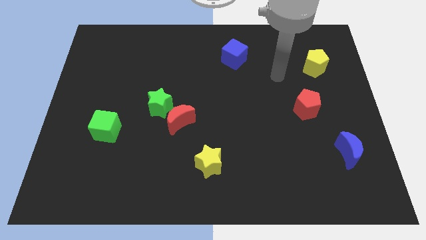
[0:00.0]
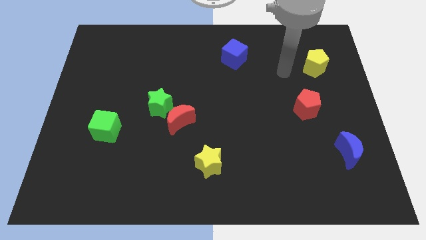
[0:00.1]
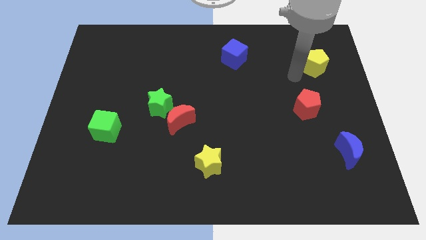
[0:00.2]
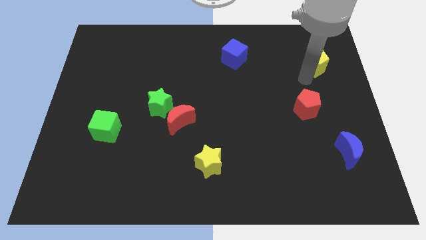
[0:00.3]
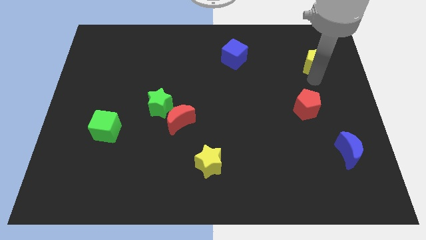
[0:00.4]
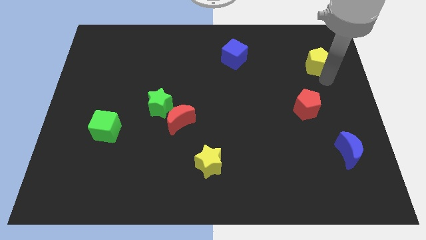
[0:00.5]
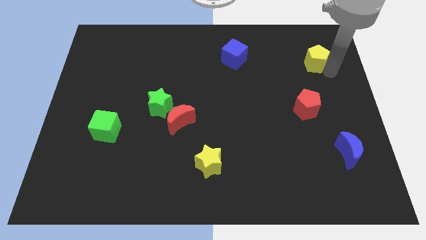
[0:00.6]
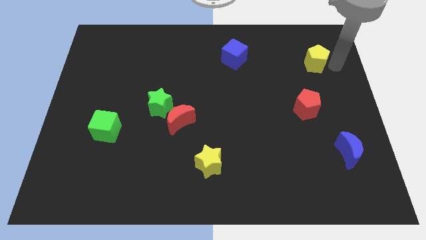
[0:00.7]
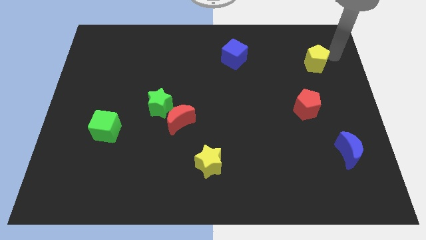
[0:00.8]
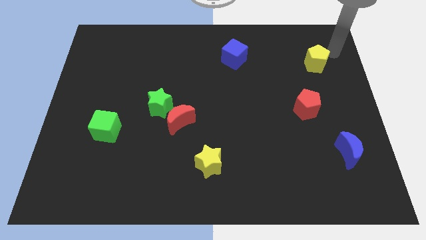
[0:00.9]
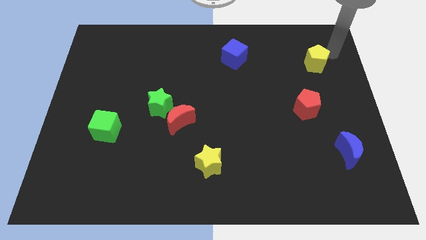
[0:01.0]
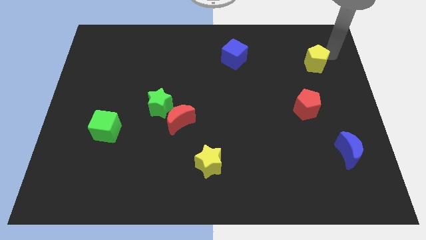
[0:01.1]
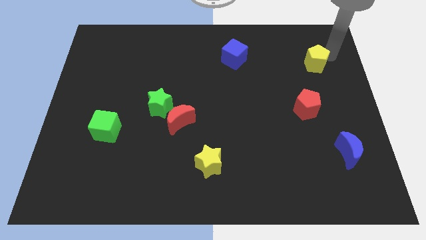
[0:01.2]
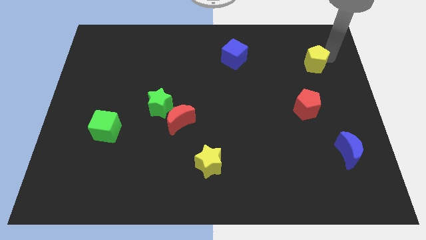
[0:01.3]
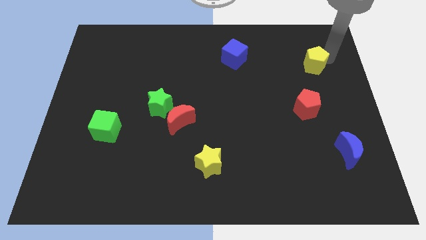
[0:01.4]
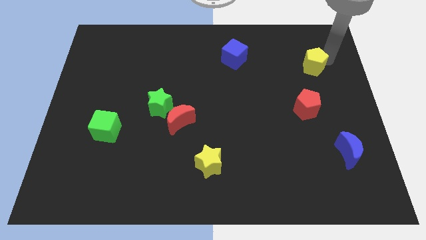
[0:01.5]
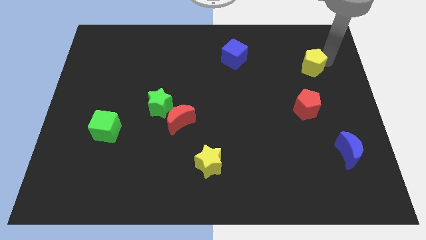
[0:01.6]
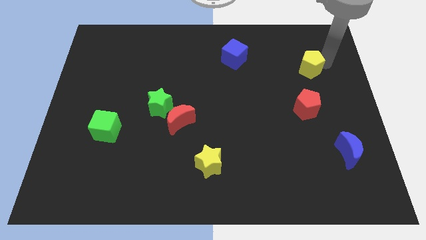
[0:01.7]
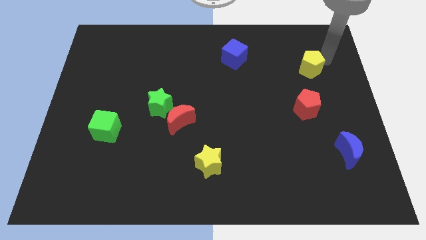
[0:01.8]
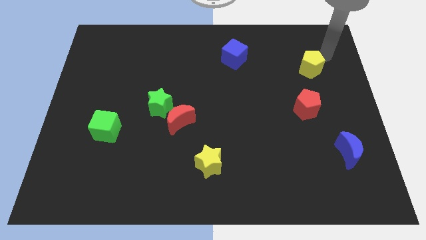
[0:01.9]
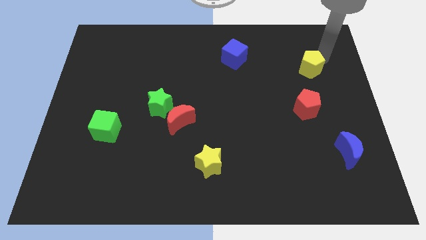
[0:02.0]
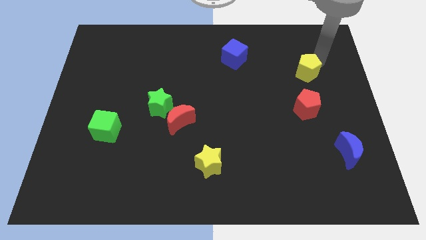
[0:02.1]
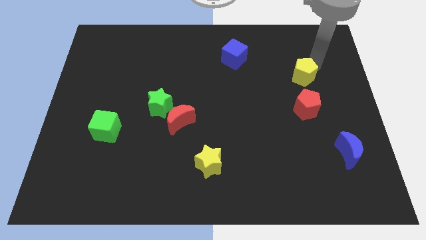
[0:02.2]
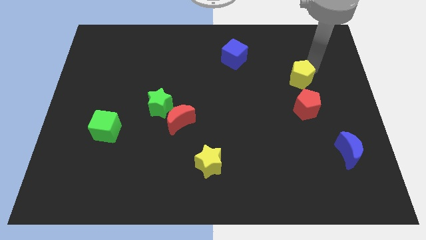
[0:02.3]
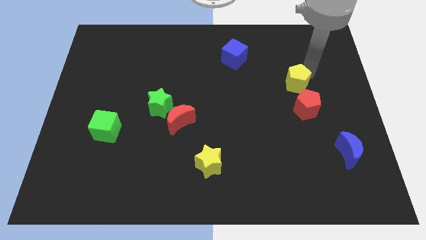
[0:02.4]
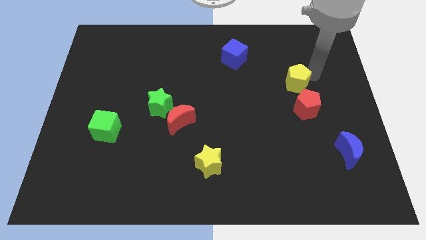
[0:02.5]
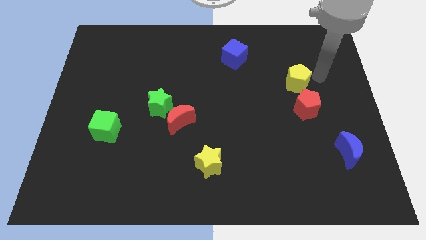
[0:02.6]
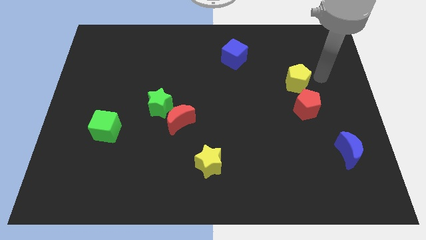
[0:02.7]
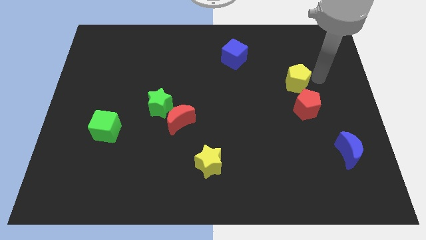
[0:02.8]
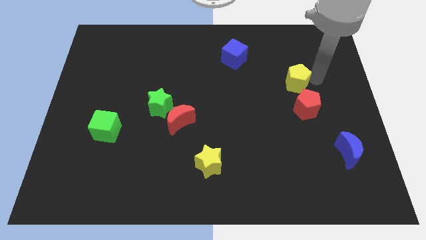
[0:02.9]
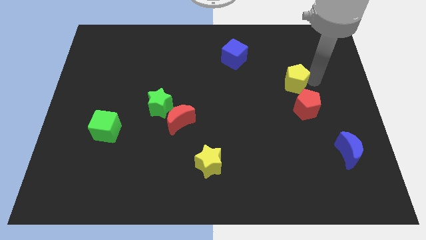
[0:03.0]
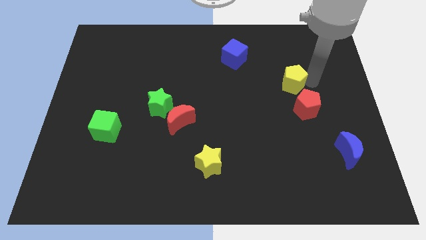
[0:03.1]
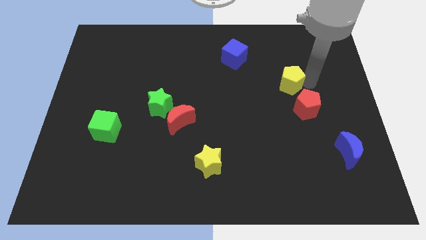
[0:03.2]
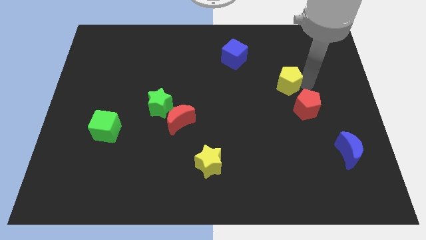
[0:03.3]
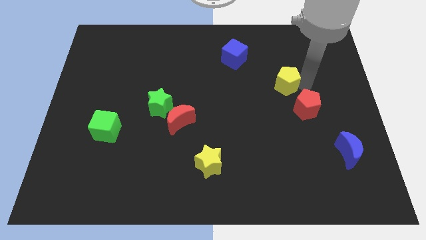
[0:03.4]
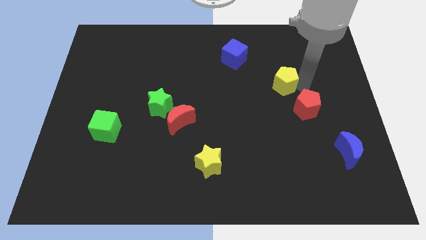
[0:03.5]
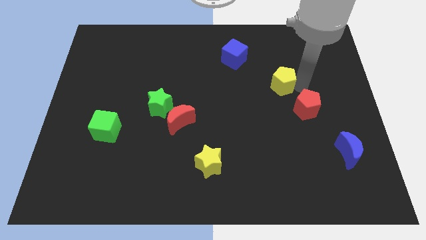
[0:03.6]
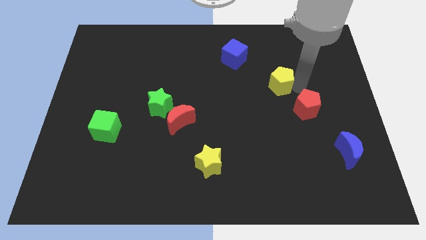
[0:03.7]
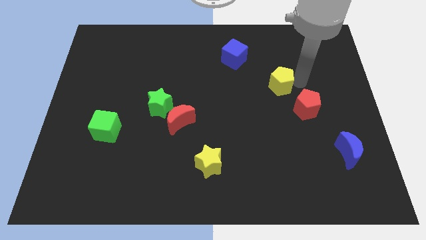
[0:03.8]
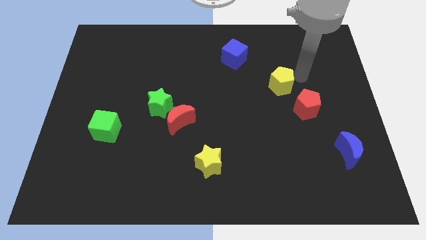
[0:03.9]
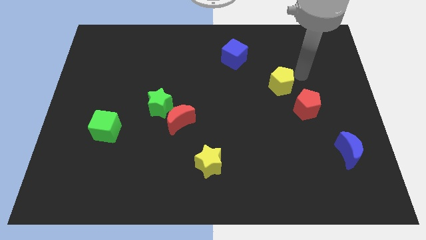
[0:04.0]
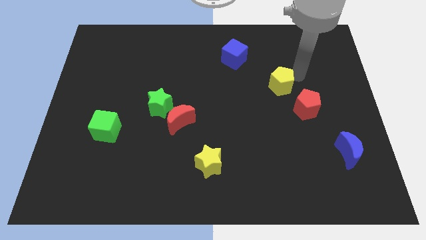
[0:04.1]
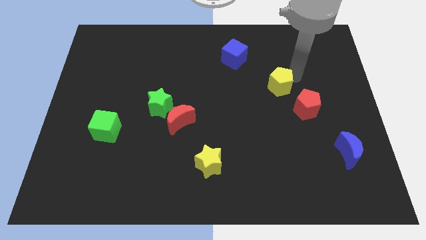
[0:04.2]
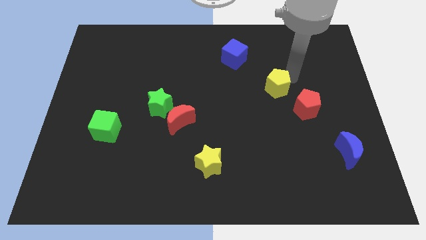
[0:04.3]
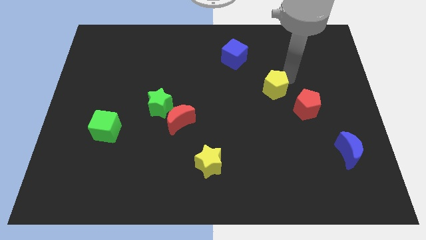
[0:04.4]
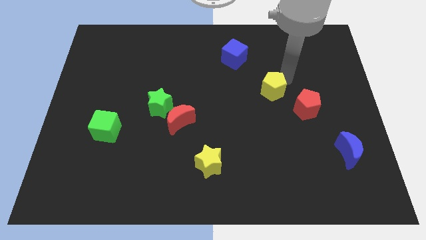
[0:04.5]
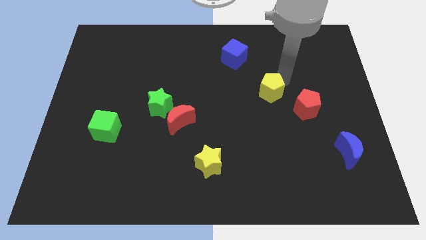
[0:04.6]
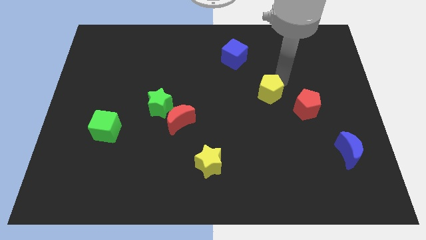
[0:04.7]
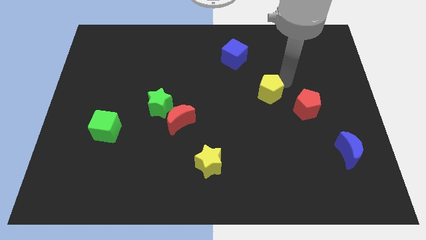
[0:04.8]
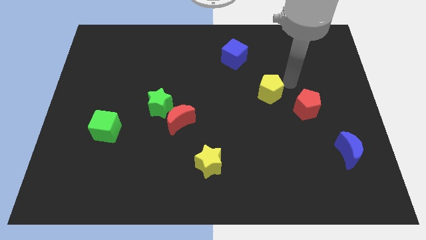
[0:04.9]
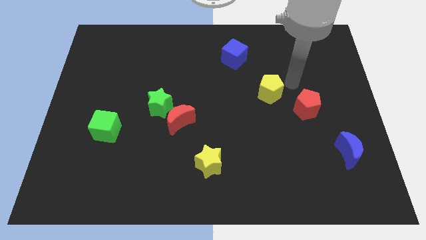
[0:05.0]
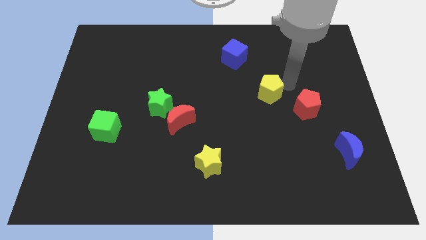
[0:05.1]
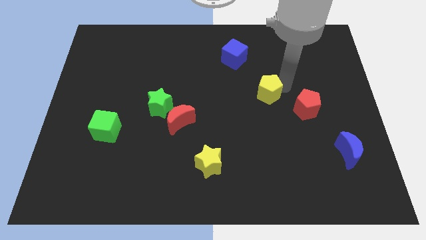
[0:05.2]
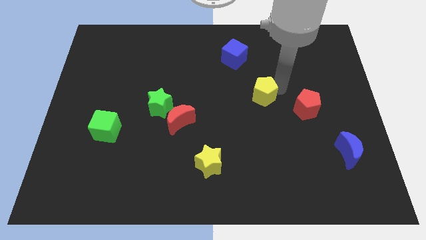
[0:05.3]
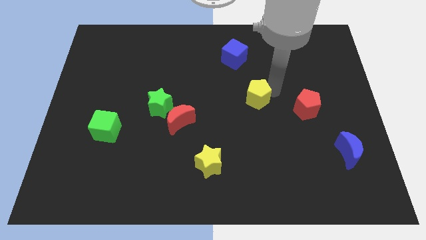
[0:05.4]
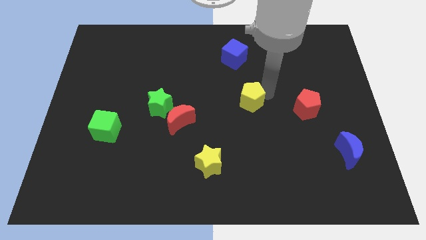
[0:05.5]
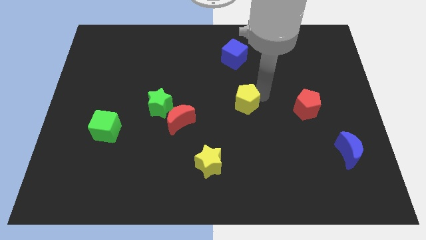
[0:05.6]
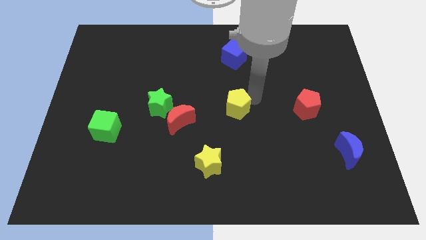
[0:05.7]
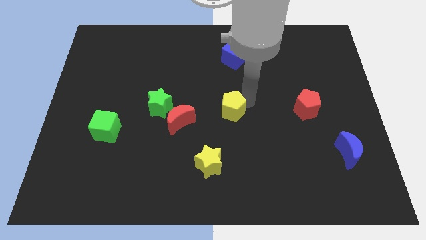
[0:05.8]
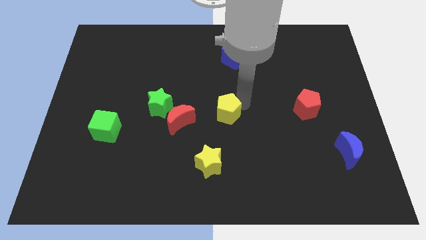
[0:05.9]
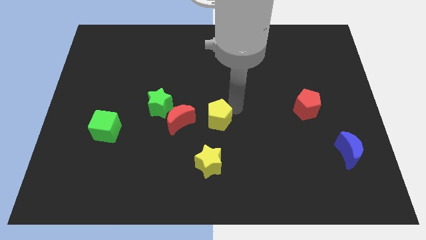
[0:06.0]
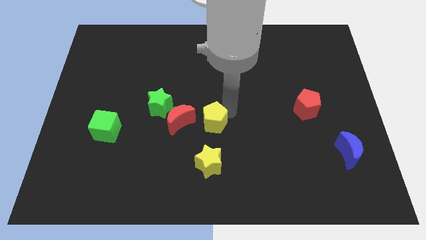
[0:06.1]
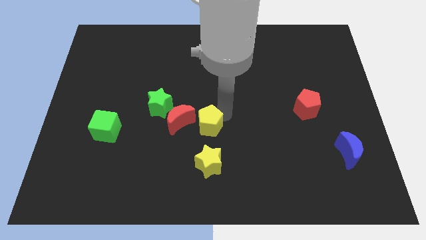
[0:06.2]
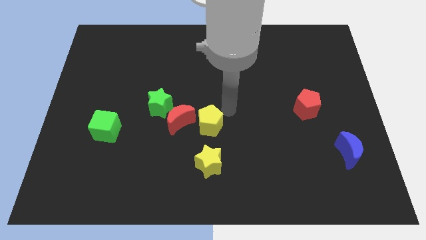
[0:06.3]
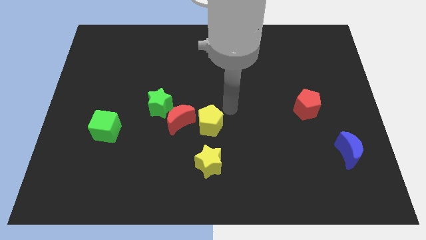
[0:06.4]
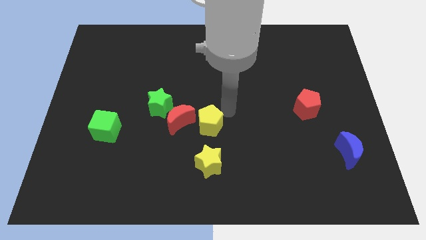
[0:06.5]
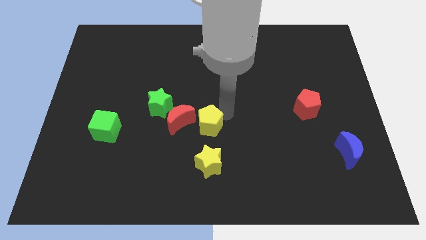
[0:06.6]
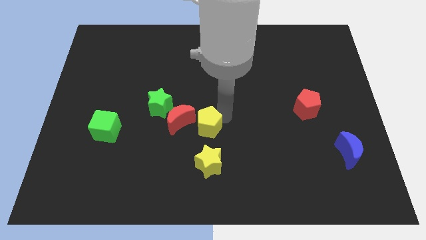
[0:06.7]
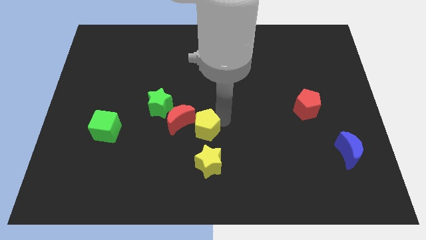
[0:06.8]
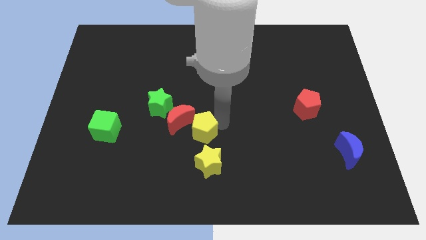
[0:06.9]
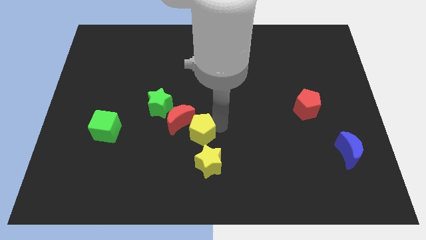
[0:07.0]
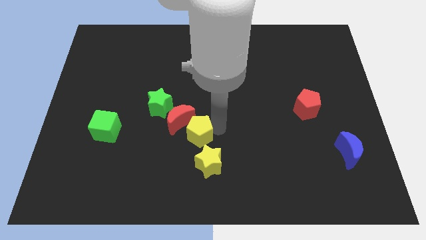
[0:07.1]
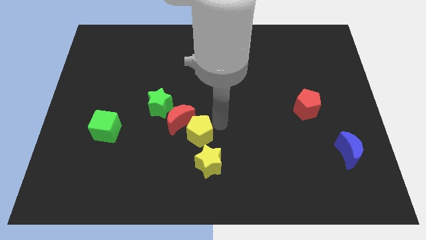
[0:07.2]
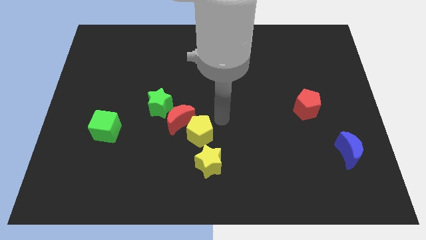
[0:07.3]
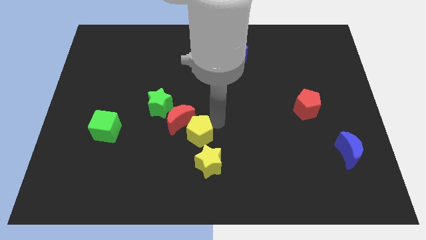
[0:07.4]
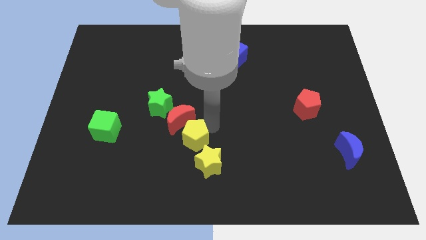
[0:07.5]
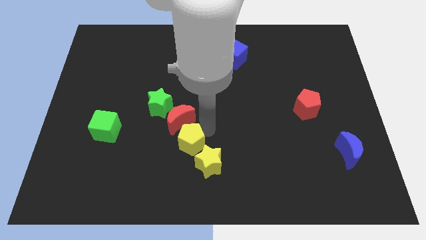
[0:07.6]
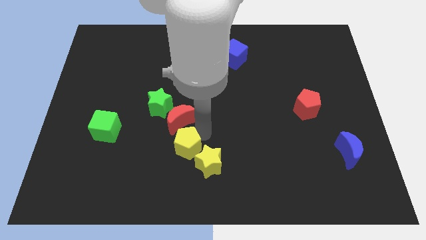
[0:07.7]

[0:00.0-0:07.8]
slide the yellow pentagon to the left side of the yellow star

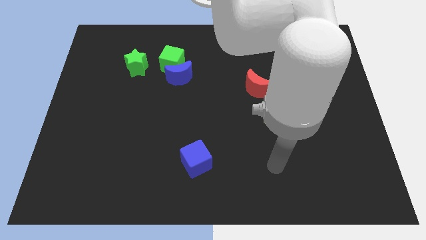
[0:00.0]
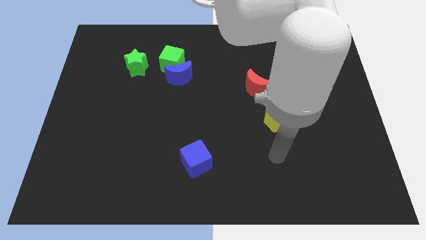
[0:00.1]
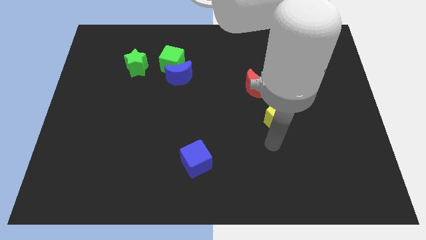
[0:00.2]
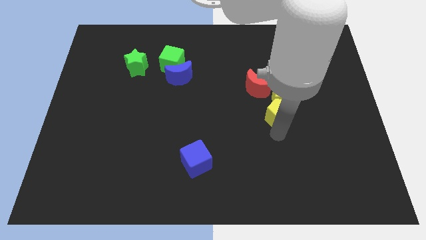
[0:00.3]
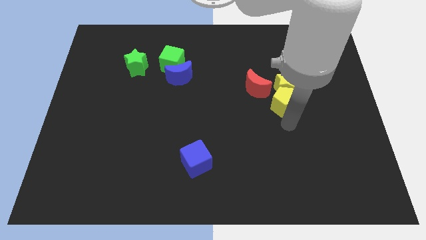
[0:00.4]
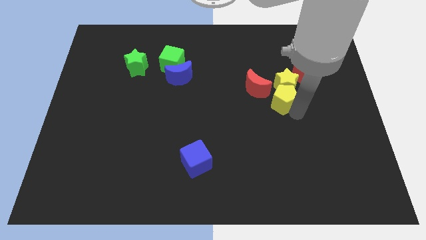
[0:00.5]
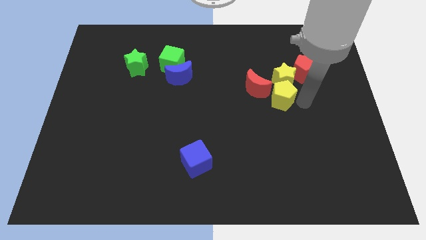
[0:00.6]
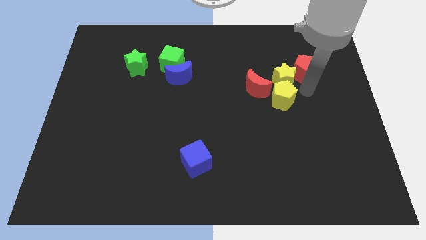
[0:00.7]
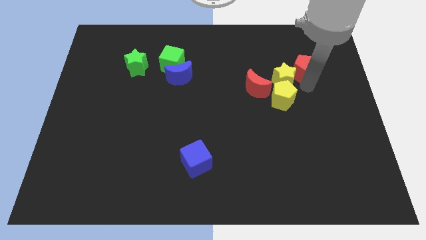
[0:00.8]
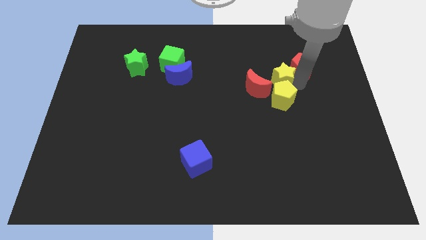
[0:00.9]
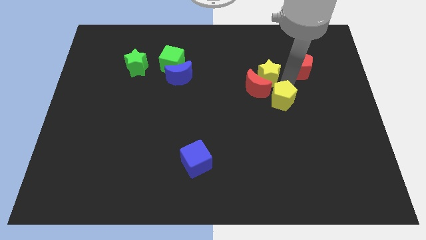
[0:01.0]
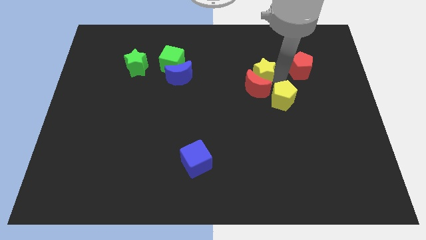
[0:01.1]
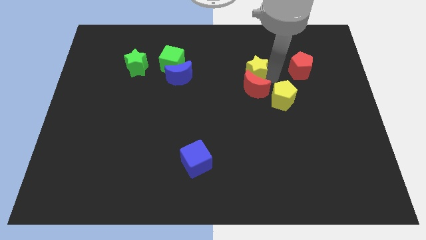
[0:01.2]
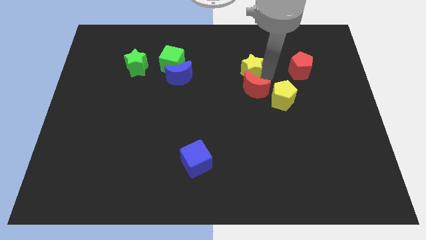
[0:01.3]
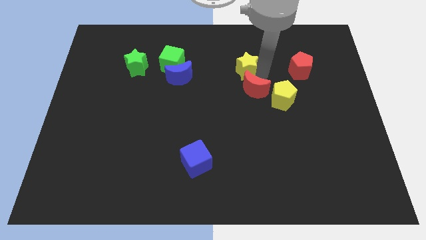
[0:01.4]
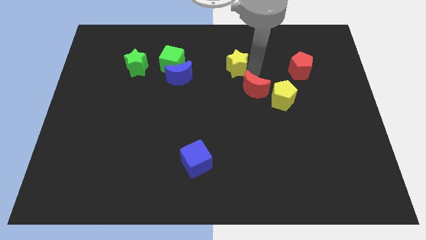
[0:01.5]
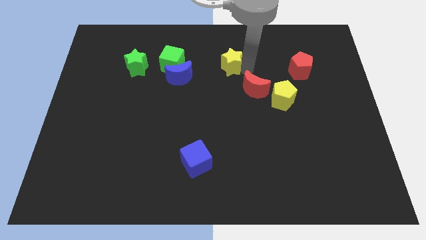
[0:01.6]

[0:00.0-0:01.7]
slide the yellow star to the right side of the green cube
